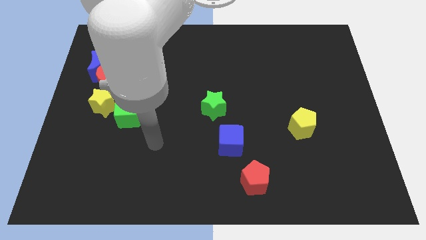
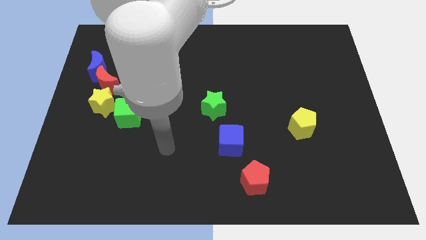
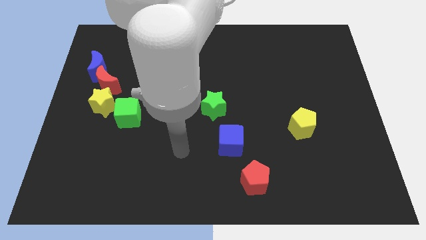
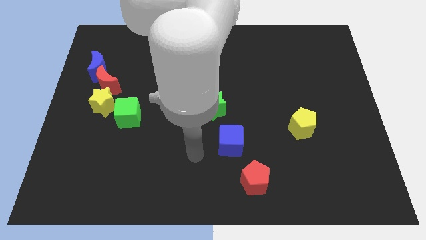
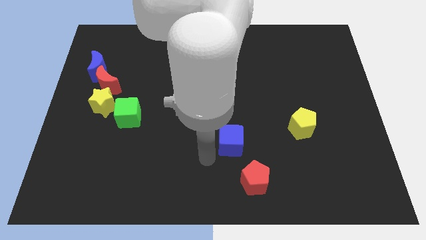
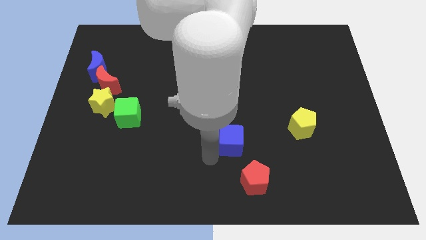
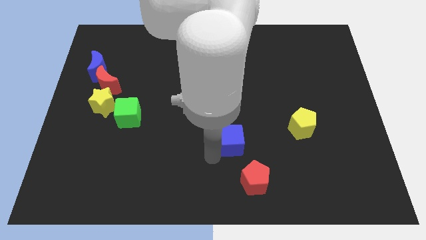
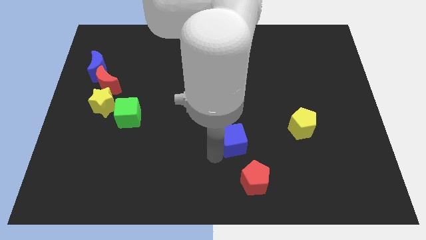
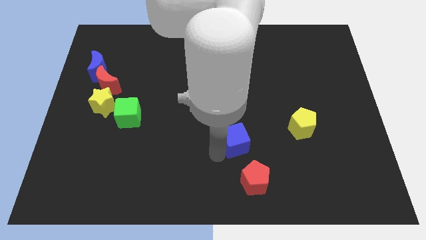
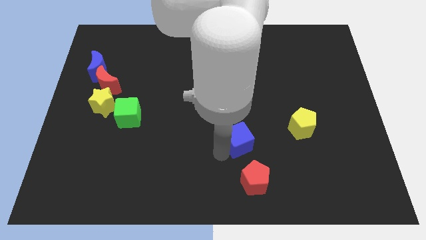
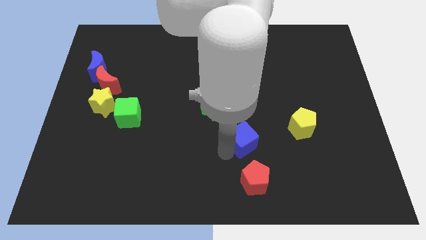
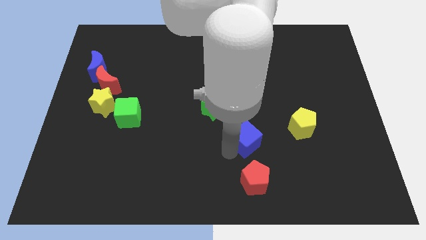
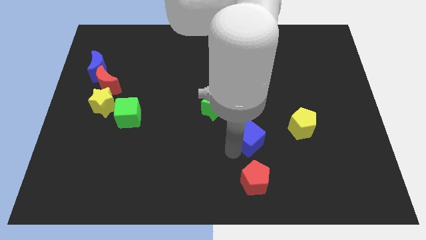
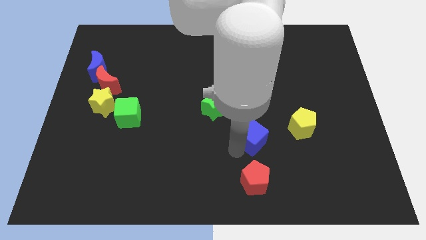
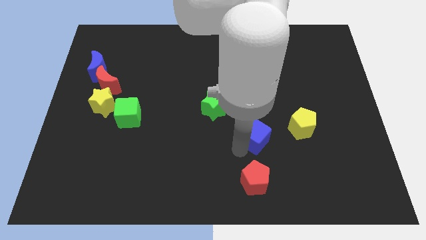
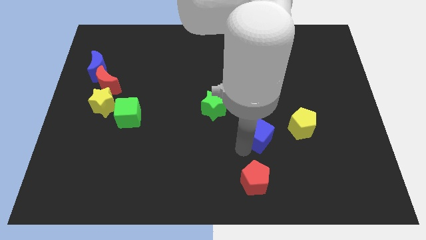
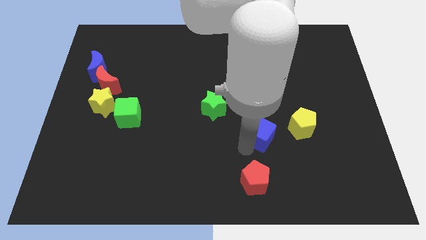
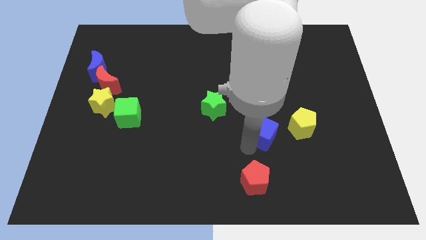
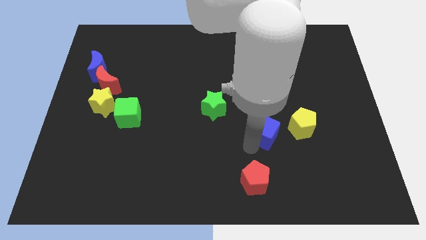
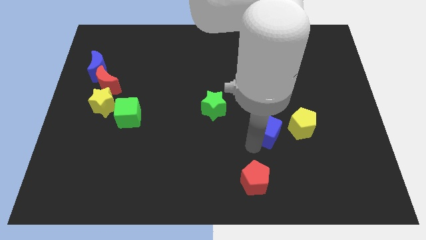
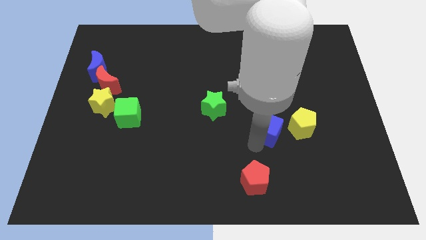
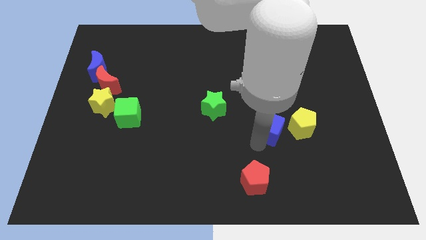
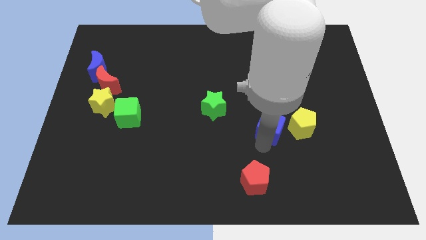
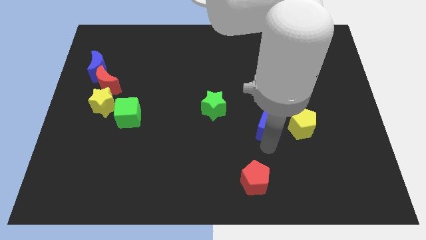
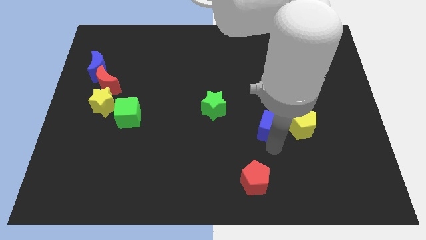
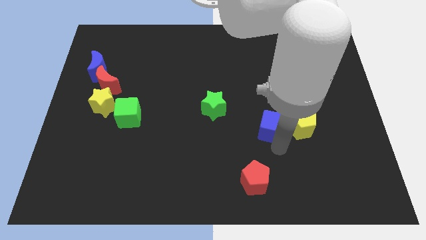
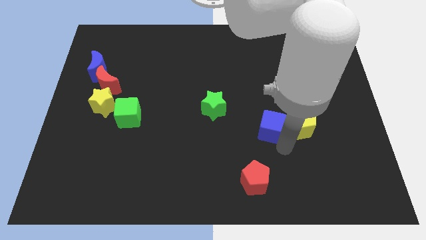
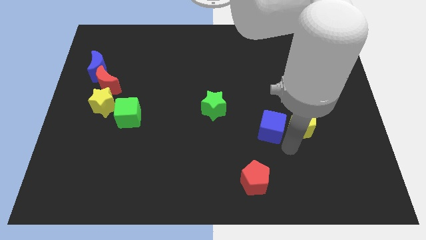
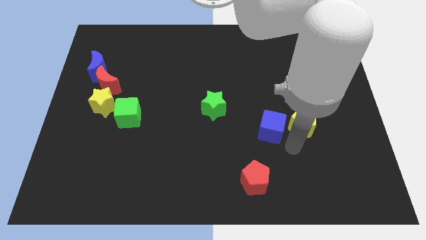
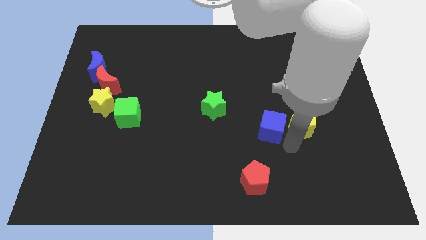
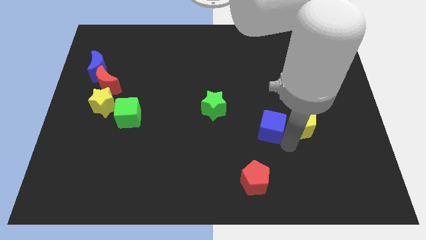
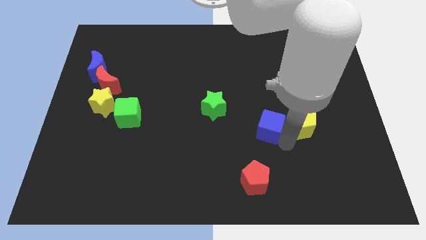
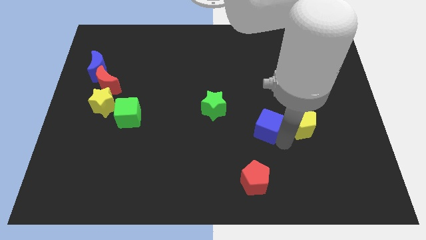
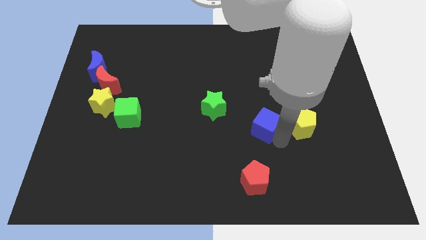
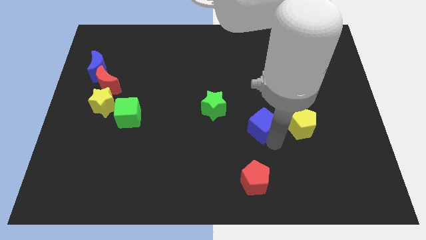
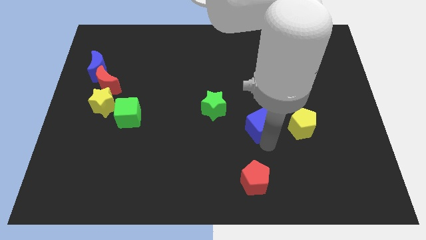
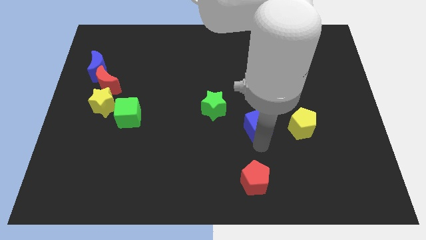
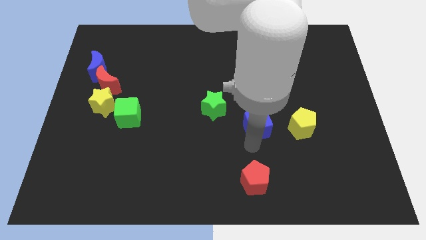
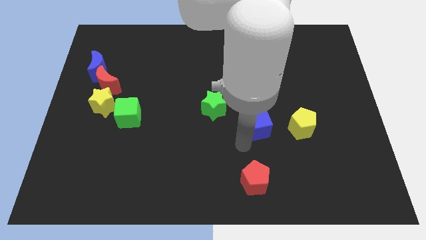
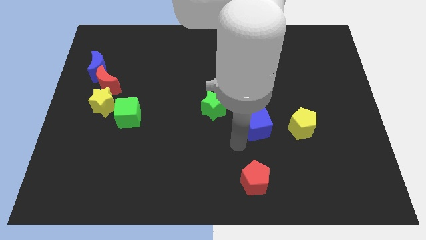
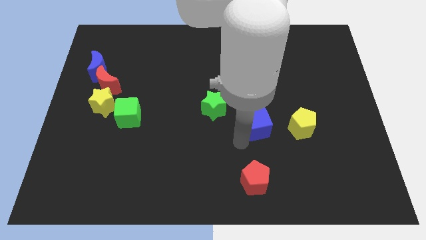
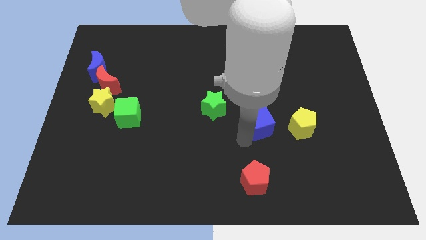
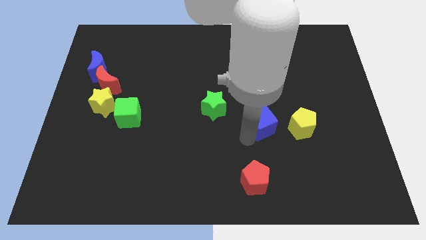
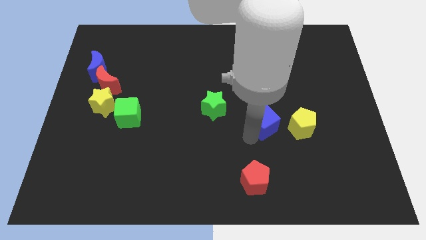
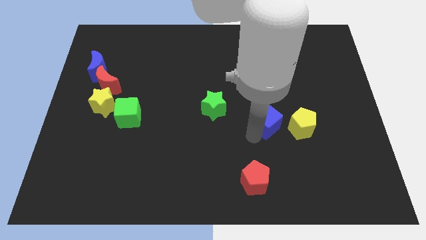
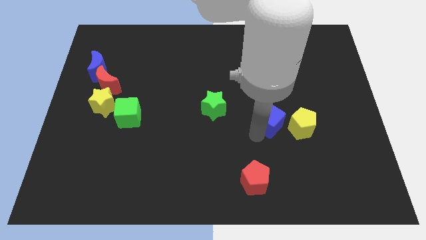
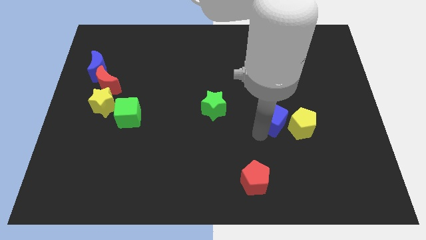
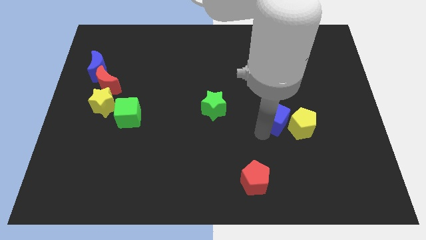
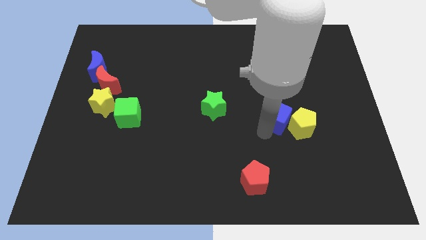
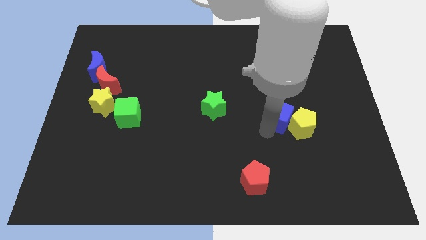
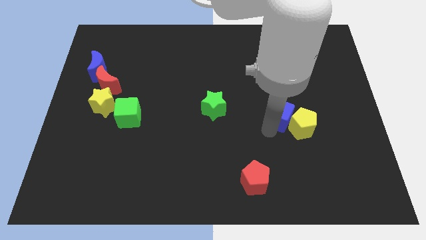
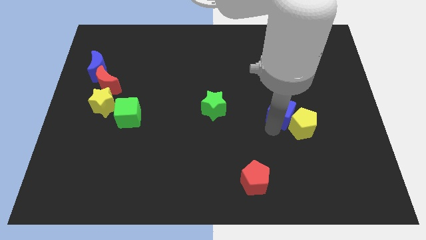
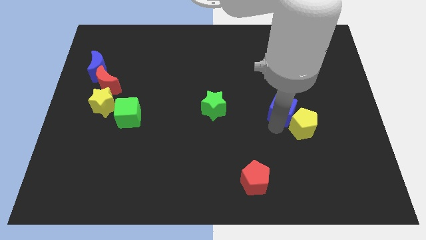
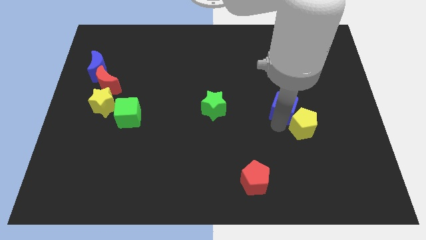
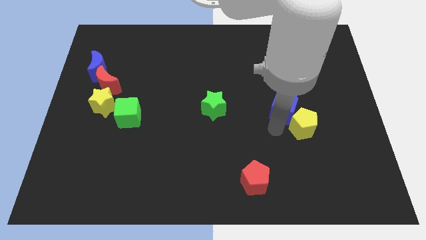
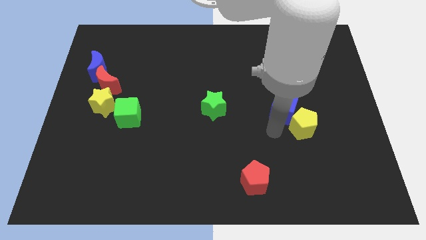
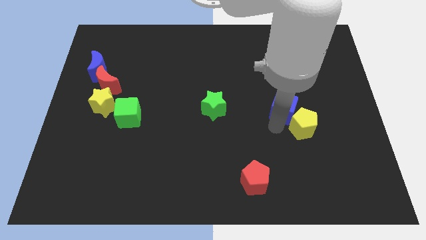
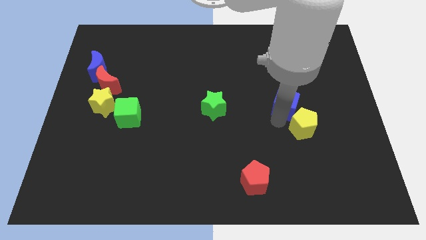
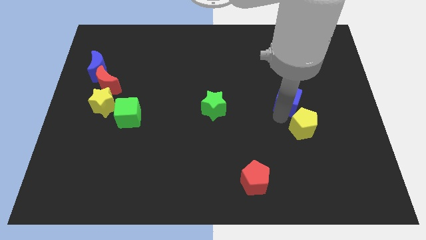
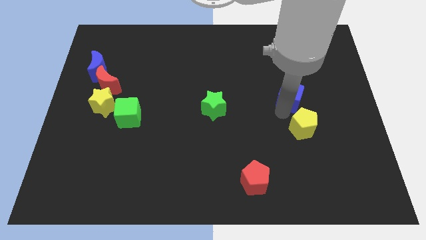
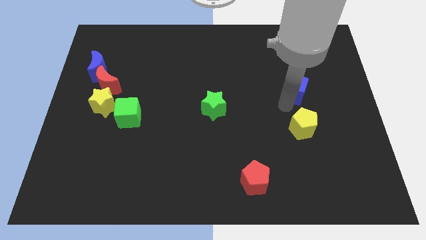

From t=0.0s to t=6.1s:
move the blue cube upwards and then right

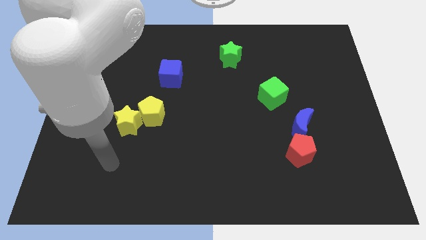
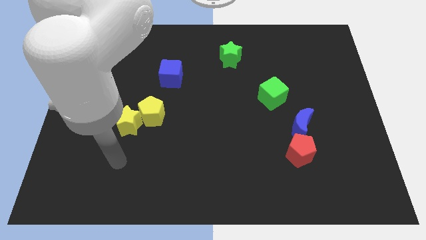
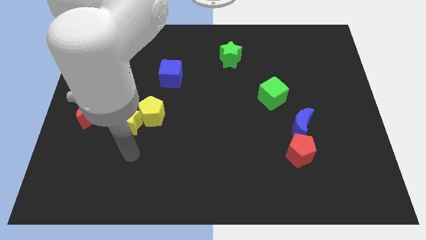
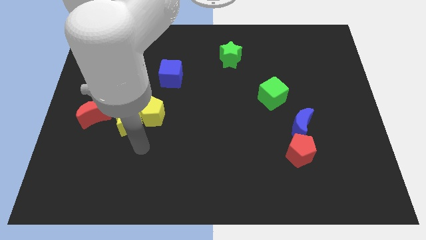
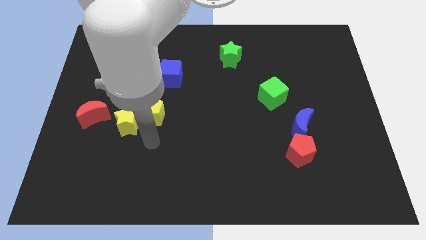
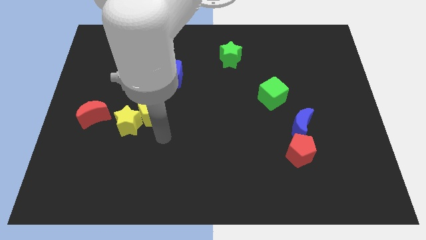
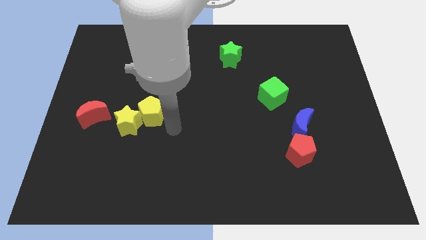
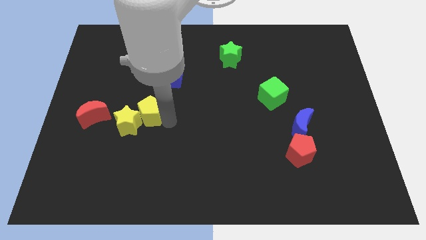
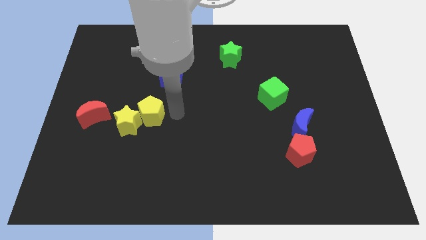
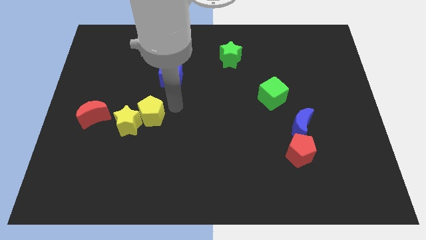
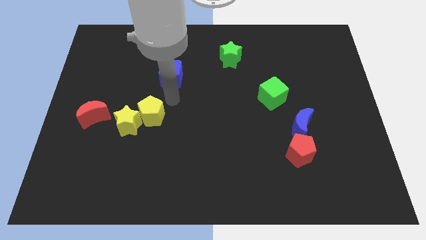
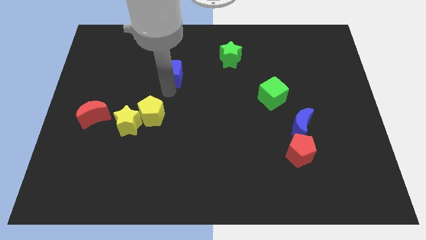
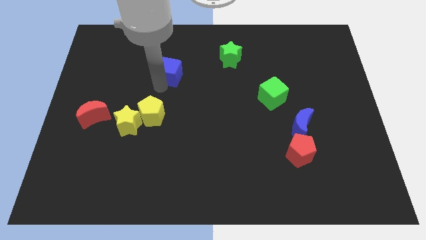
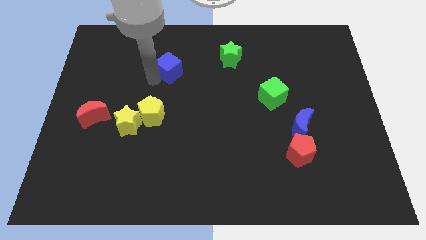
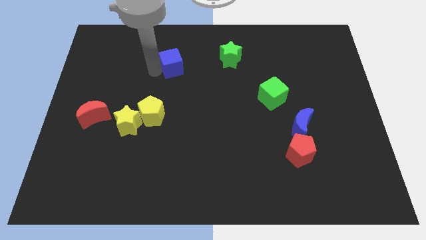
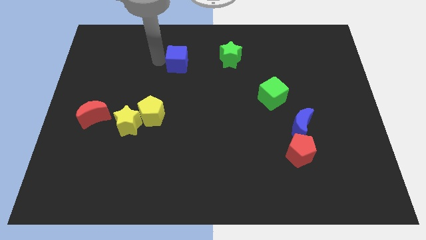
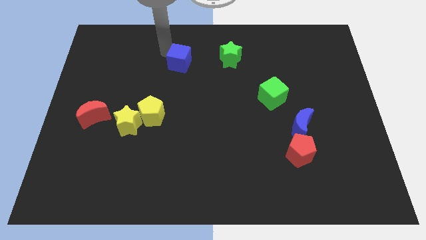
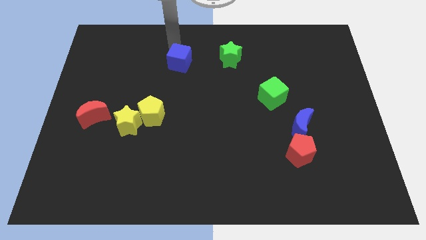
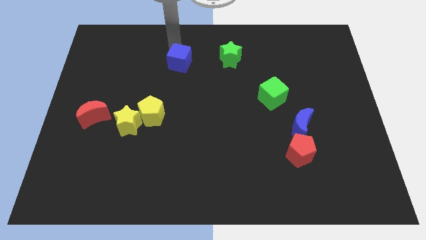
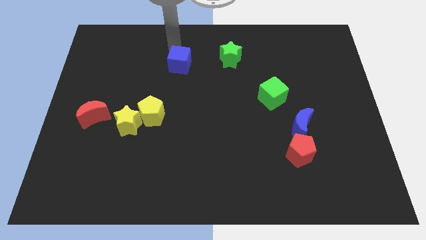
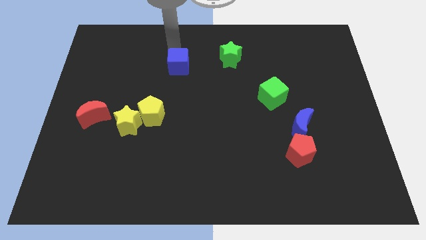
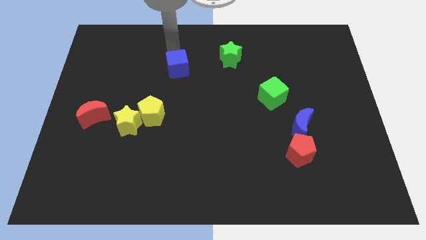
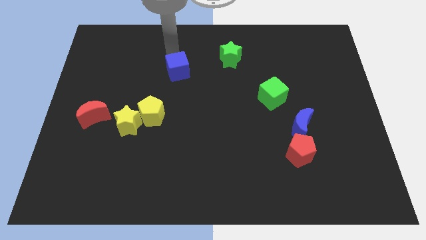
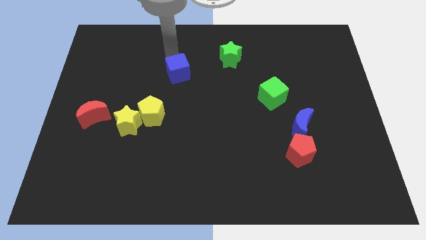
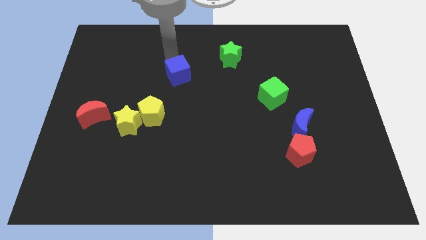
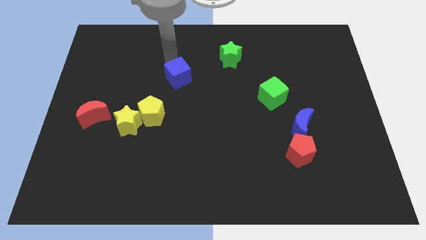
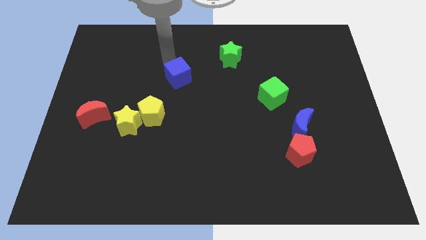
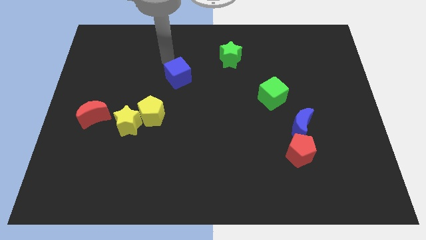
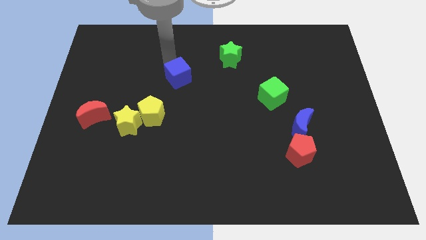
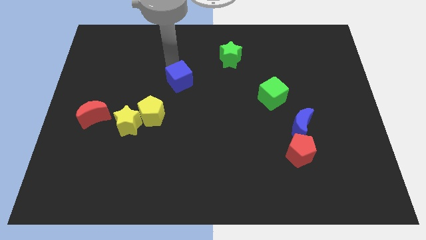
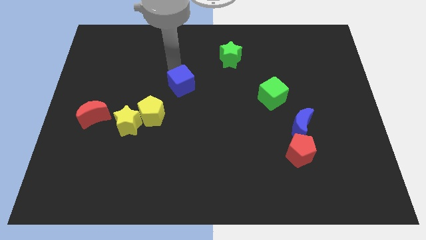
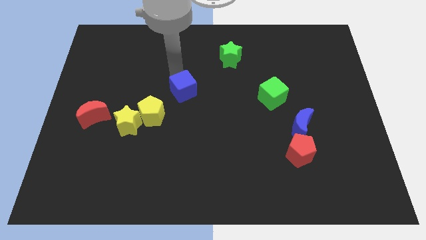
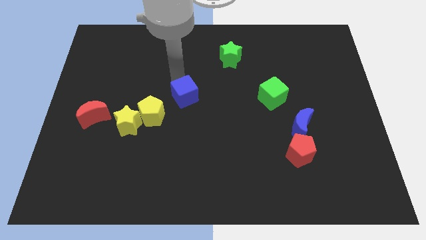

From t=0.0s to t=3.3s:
push the blue cube a bit diagonally down and to the right
